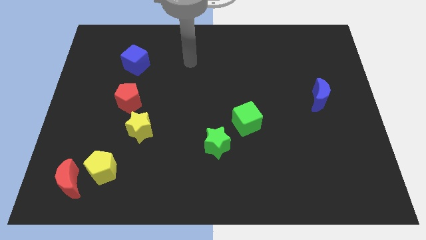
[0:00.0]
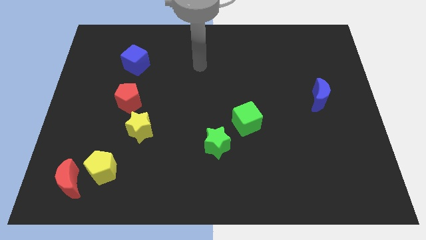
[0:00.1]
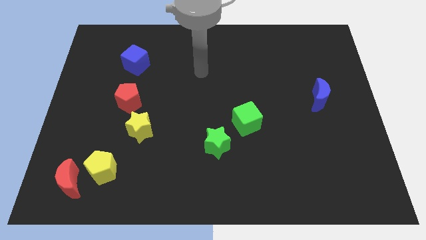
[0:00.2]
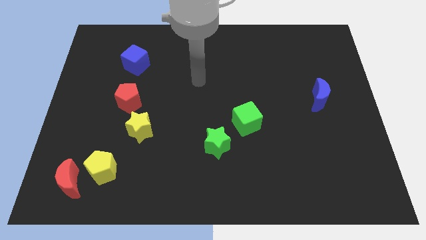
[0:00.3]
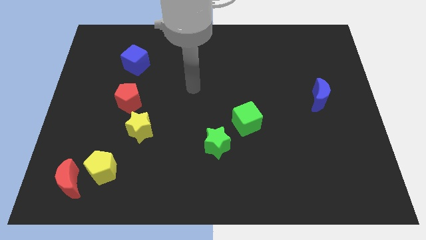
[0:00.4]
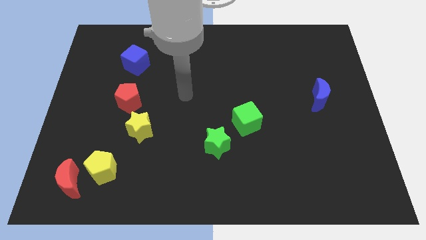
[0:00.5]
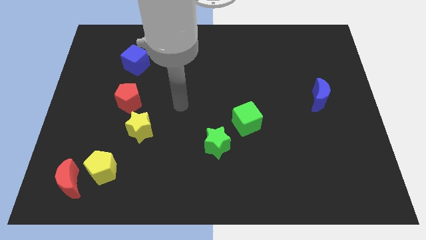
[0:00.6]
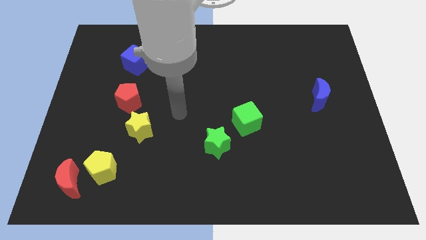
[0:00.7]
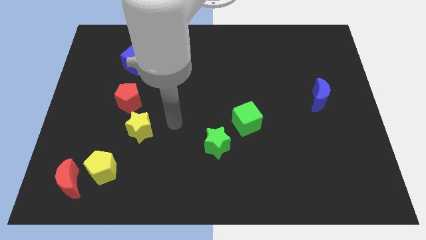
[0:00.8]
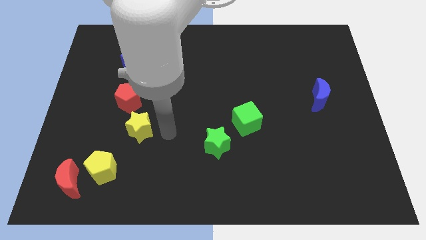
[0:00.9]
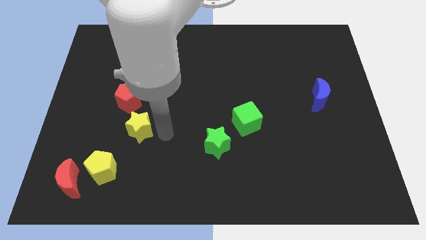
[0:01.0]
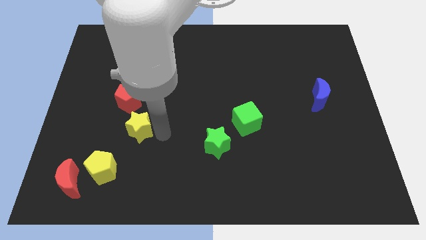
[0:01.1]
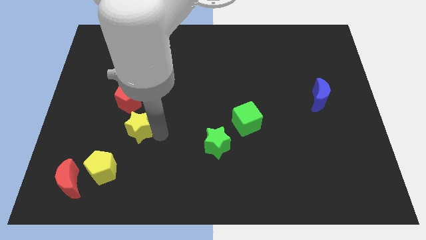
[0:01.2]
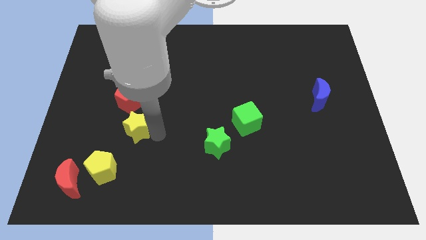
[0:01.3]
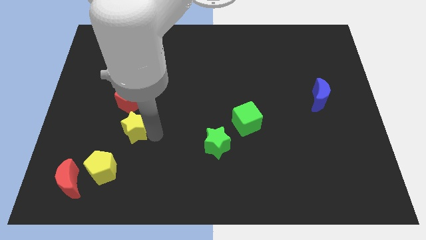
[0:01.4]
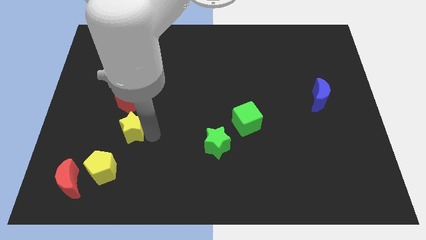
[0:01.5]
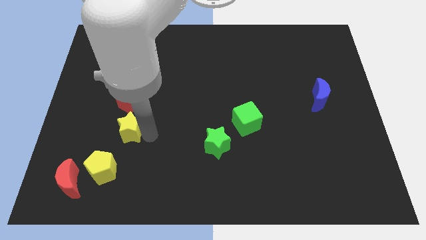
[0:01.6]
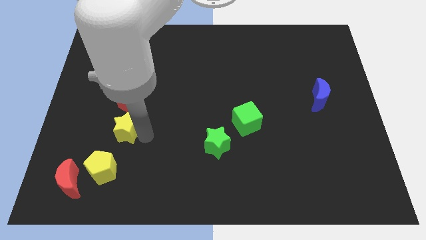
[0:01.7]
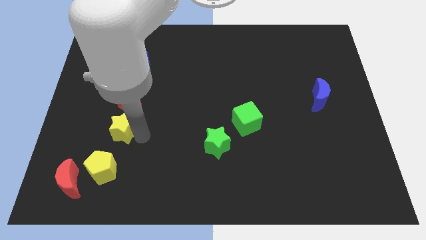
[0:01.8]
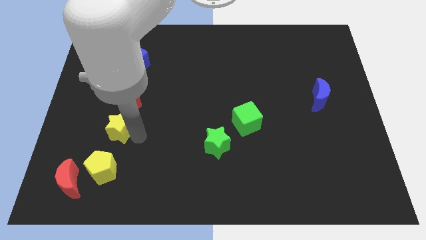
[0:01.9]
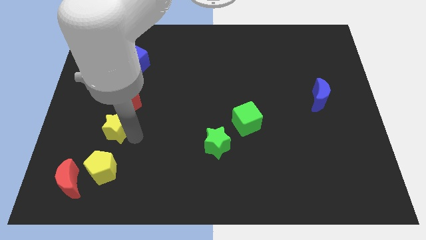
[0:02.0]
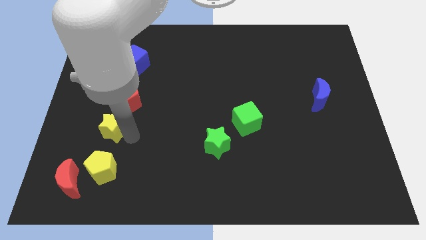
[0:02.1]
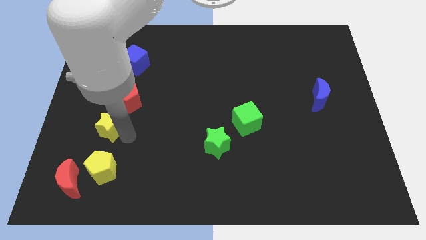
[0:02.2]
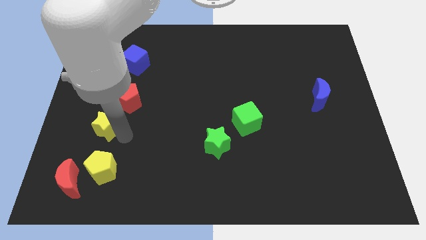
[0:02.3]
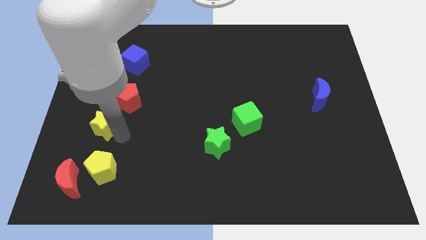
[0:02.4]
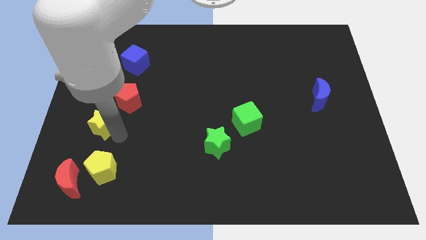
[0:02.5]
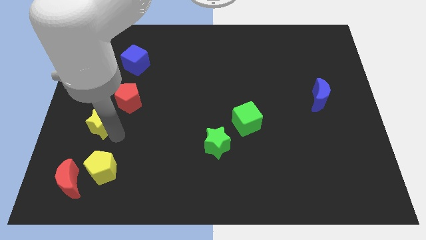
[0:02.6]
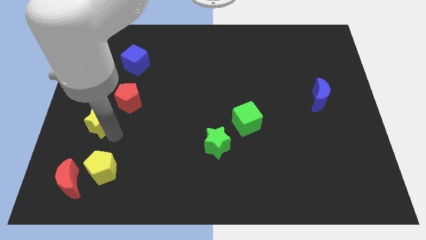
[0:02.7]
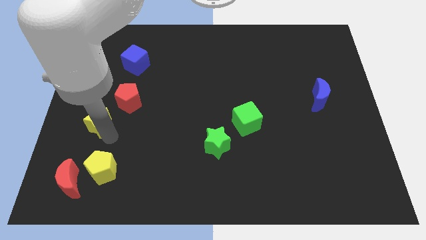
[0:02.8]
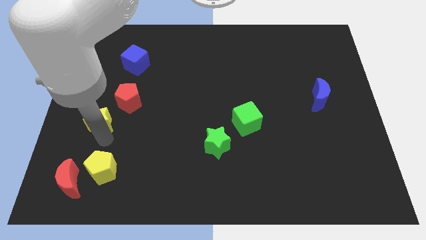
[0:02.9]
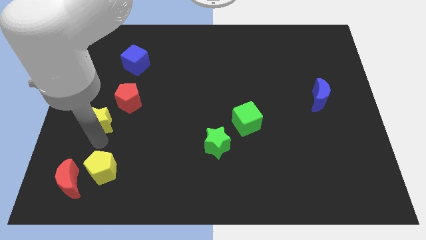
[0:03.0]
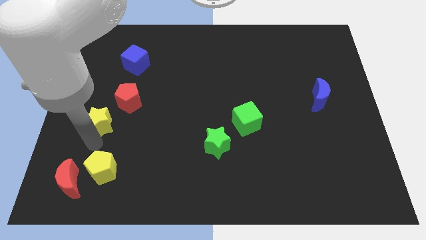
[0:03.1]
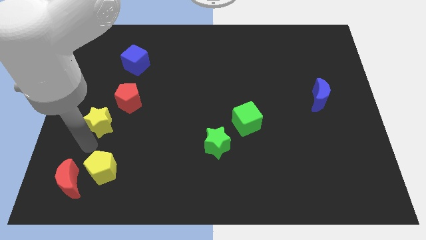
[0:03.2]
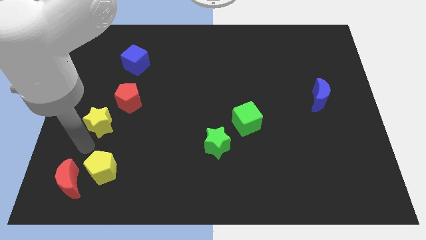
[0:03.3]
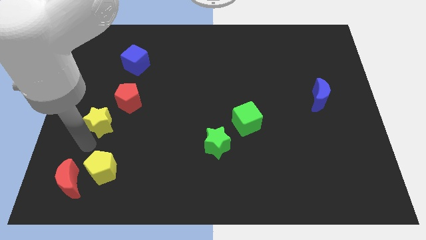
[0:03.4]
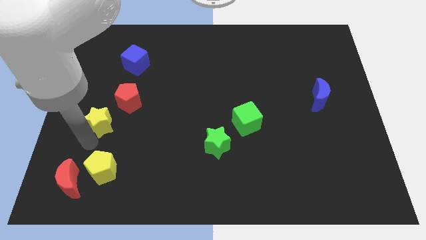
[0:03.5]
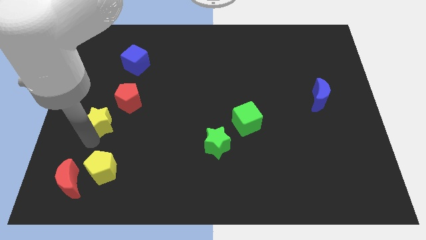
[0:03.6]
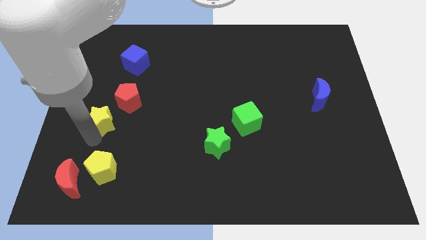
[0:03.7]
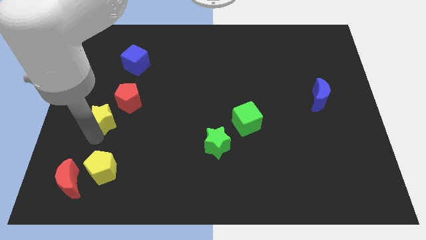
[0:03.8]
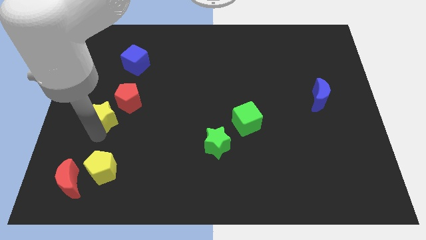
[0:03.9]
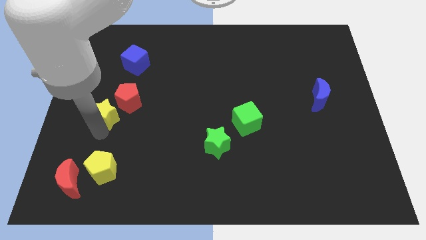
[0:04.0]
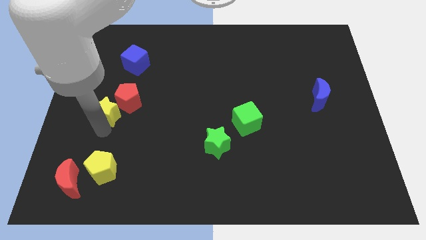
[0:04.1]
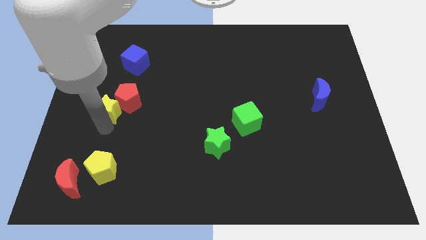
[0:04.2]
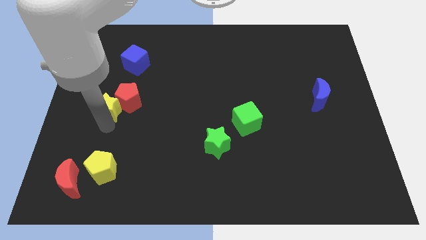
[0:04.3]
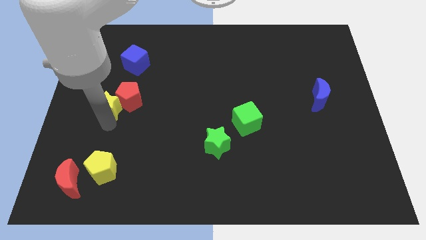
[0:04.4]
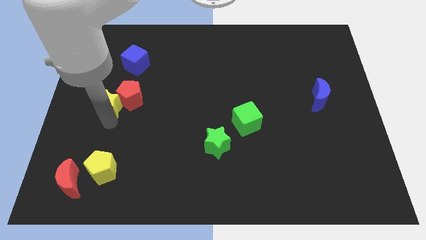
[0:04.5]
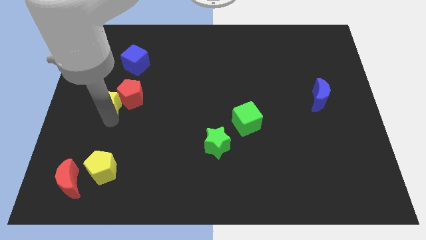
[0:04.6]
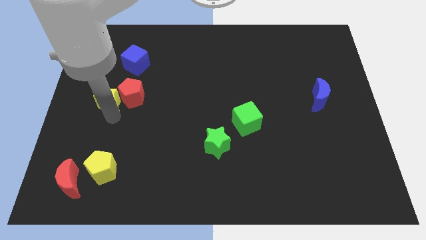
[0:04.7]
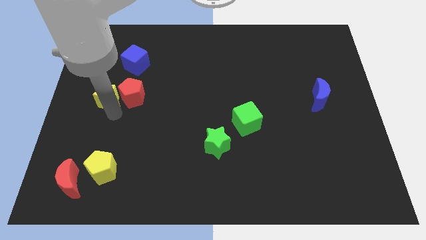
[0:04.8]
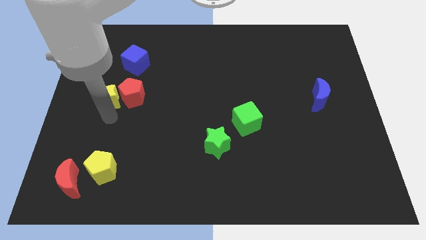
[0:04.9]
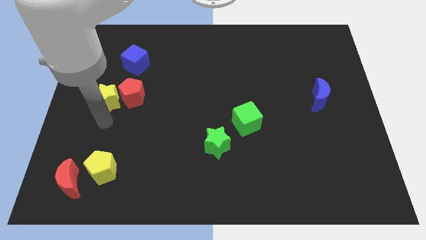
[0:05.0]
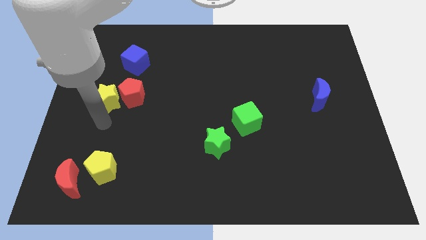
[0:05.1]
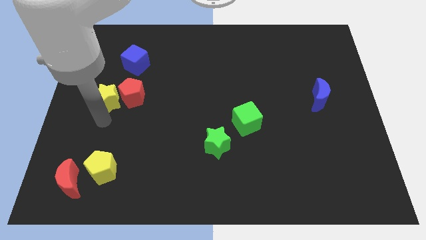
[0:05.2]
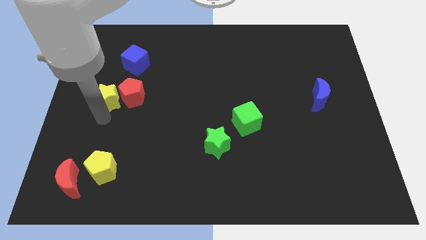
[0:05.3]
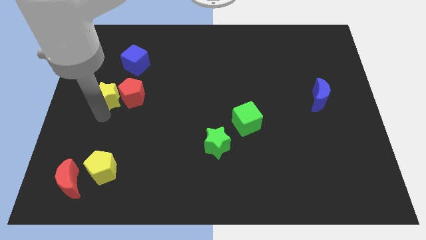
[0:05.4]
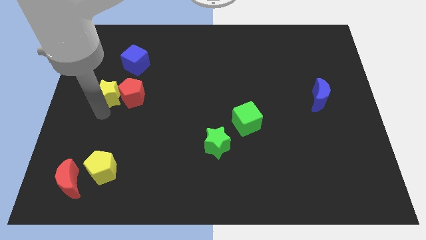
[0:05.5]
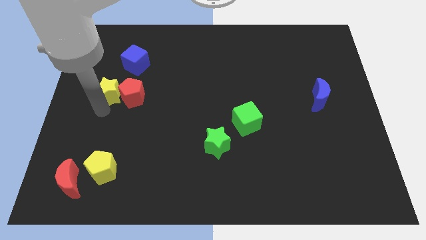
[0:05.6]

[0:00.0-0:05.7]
move the yellow star to the bottom left side of the blue cube

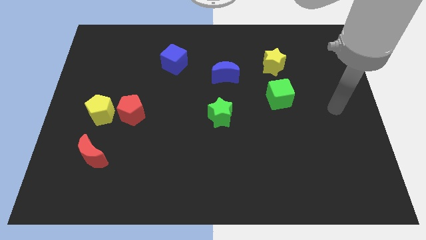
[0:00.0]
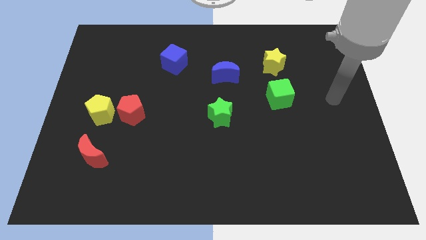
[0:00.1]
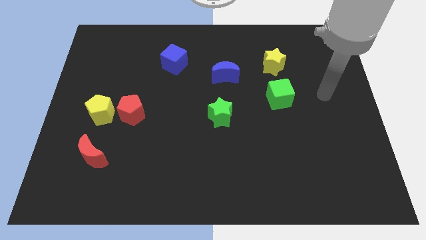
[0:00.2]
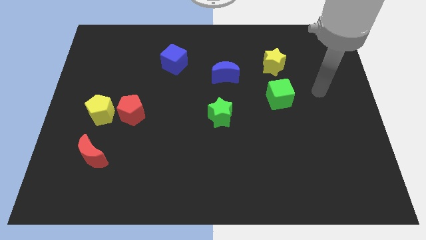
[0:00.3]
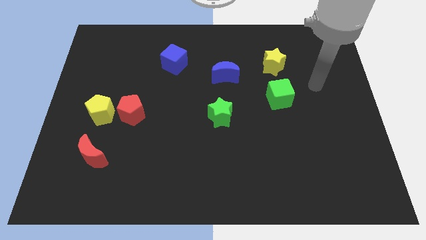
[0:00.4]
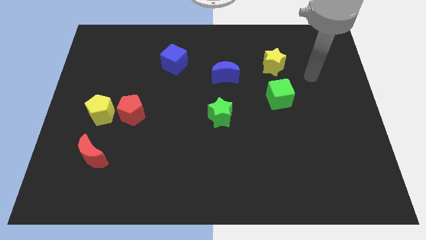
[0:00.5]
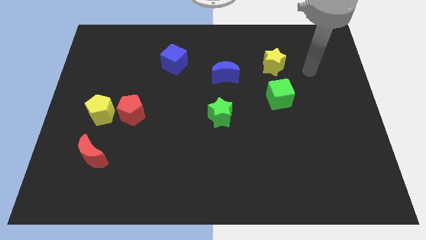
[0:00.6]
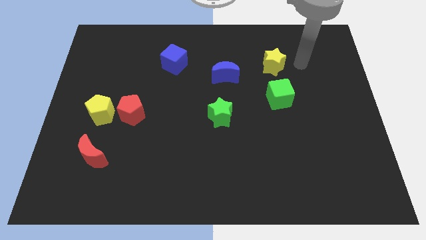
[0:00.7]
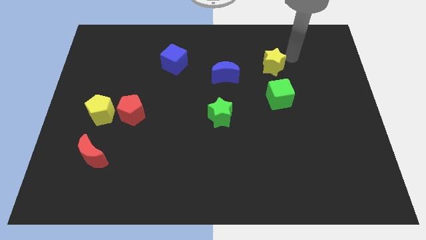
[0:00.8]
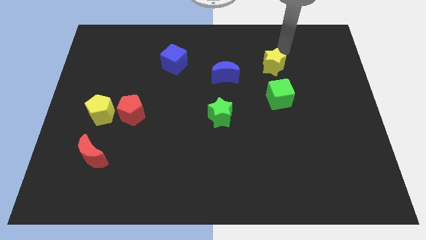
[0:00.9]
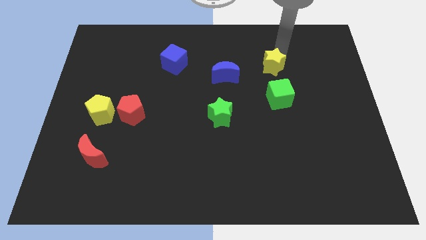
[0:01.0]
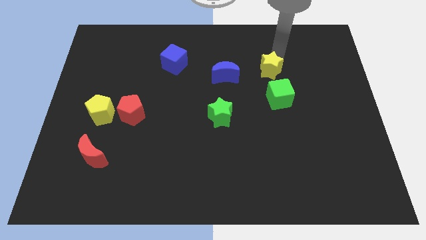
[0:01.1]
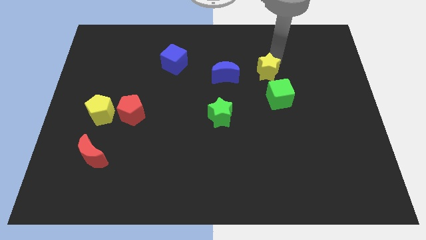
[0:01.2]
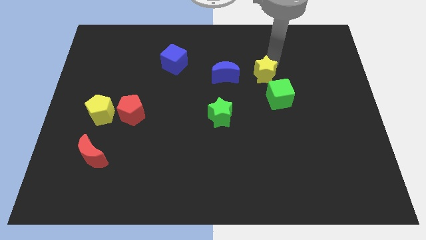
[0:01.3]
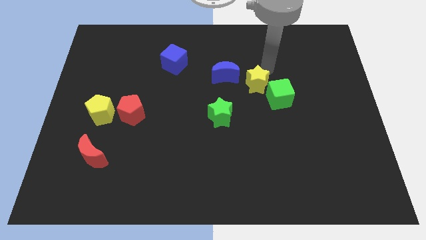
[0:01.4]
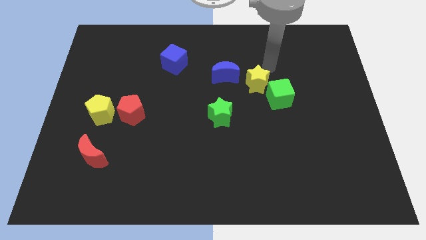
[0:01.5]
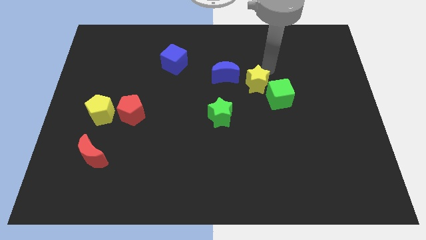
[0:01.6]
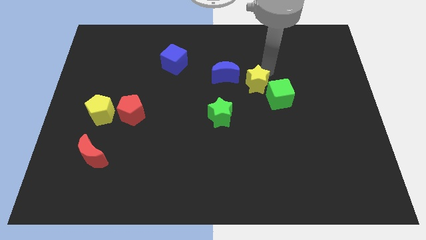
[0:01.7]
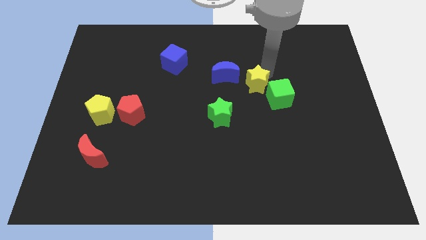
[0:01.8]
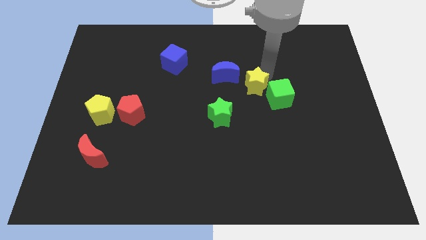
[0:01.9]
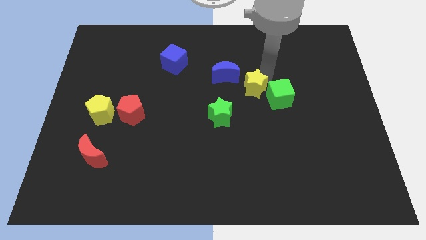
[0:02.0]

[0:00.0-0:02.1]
slide the yellow star to the top right side of the green star
